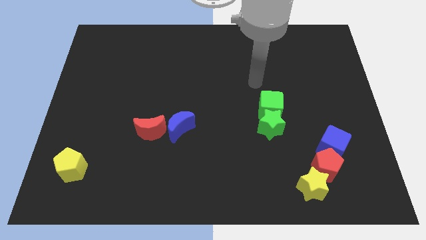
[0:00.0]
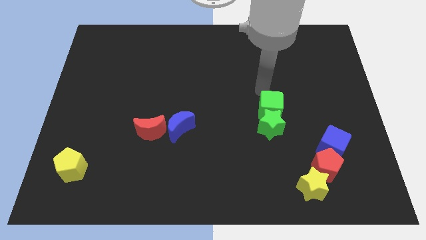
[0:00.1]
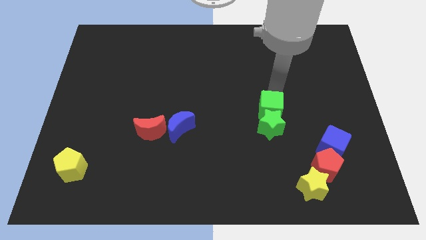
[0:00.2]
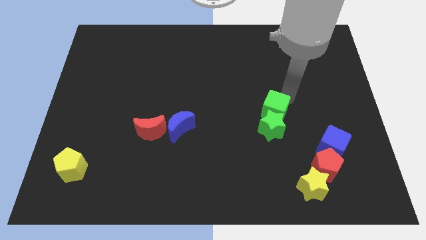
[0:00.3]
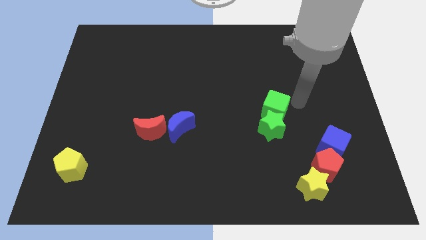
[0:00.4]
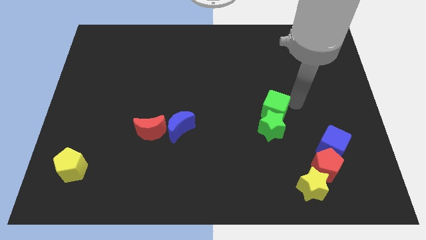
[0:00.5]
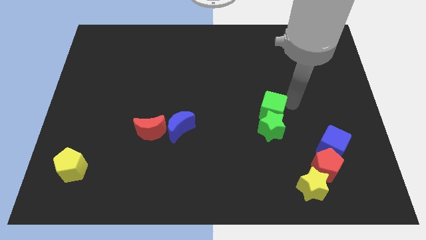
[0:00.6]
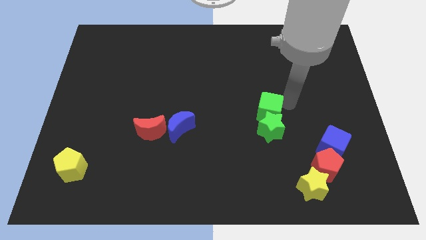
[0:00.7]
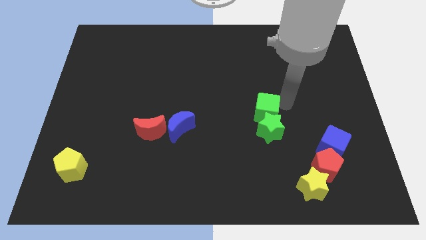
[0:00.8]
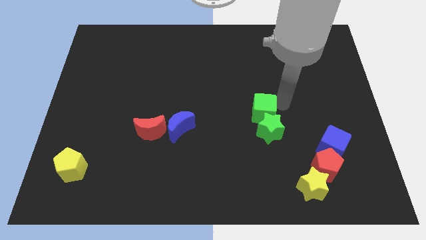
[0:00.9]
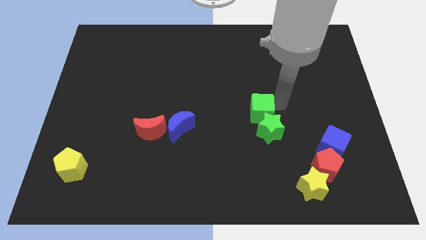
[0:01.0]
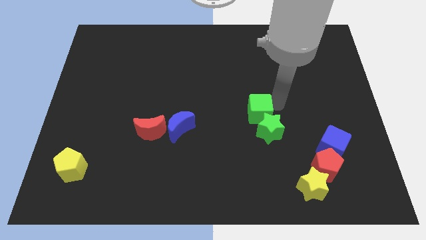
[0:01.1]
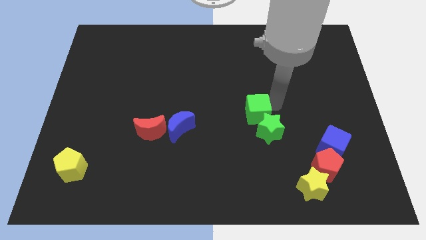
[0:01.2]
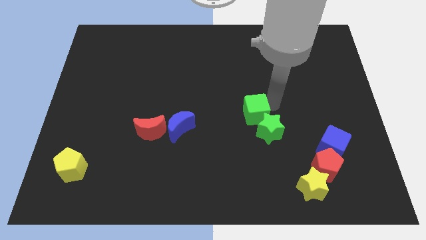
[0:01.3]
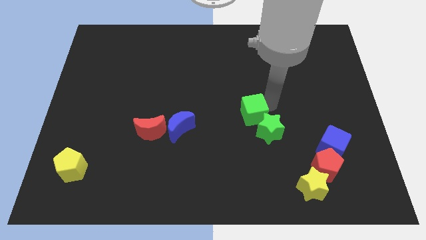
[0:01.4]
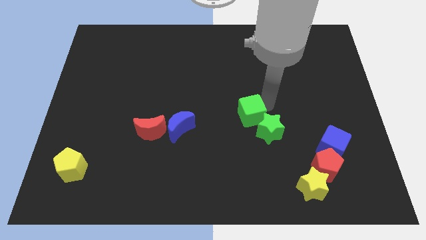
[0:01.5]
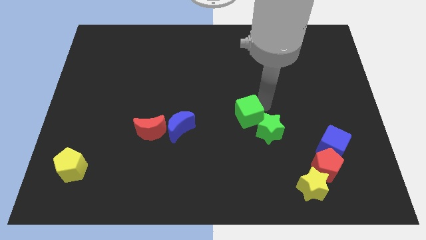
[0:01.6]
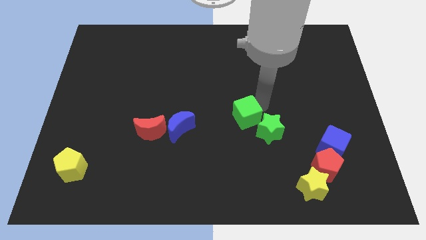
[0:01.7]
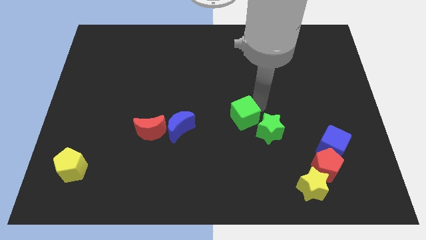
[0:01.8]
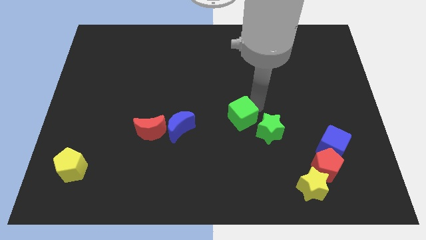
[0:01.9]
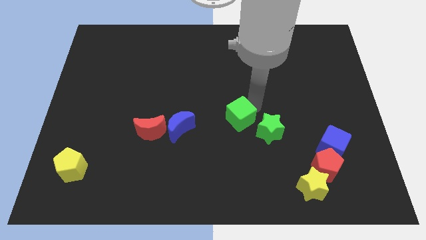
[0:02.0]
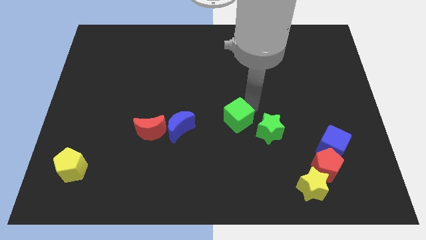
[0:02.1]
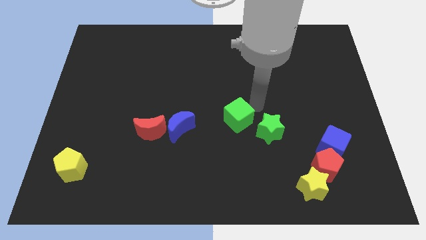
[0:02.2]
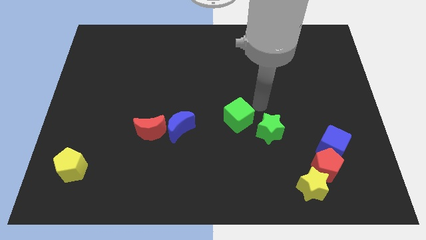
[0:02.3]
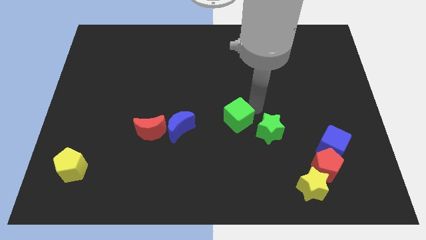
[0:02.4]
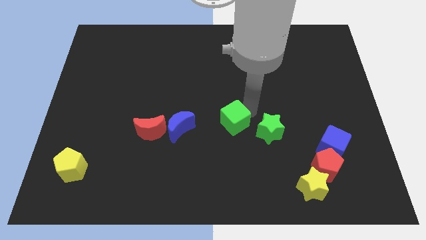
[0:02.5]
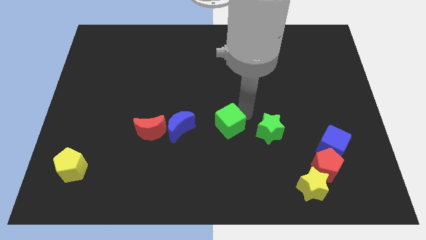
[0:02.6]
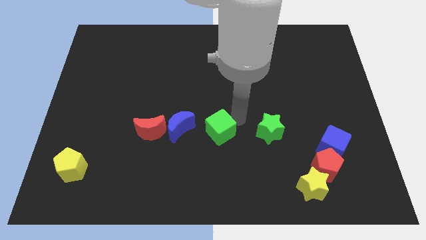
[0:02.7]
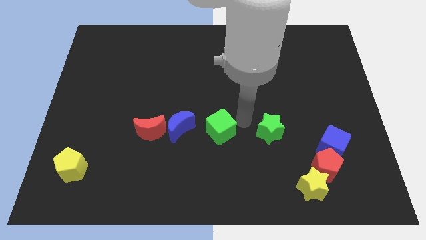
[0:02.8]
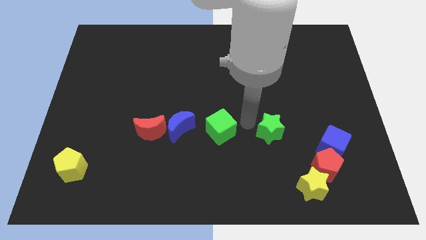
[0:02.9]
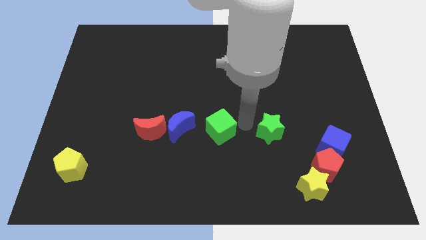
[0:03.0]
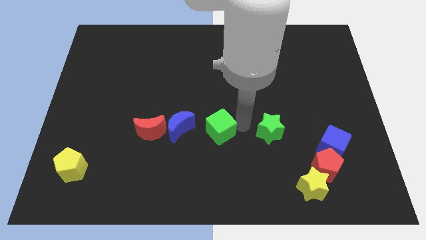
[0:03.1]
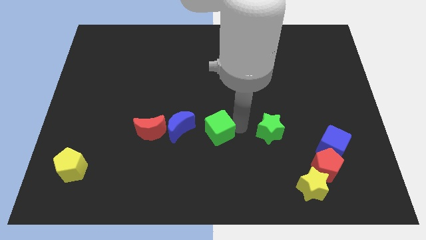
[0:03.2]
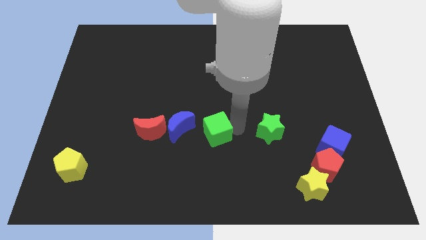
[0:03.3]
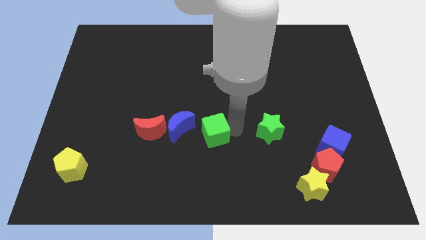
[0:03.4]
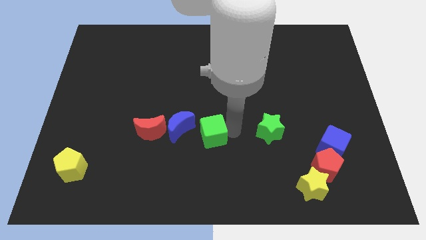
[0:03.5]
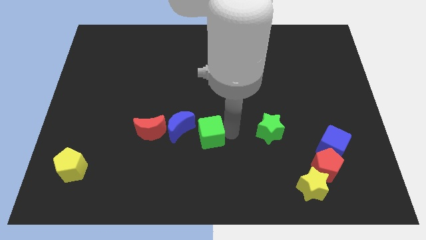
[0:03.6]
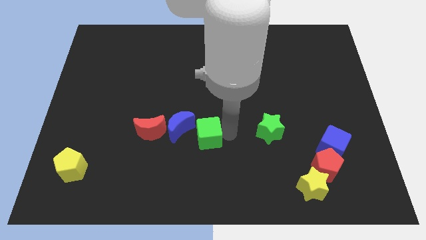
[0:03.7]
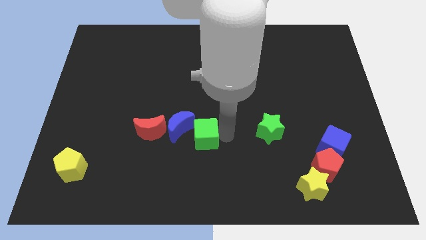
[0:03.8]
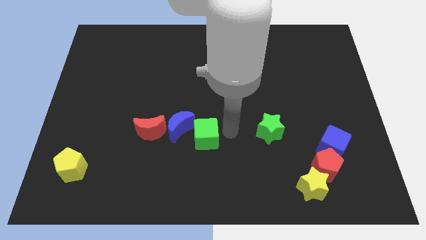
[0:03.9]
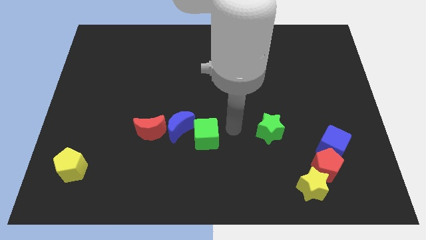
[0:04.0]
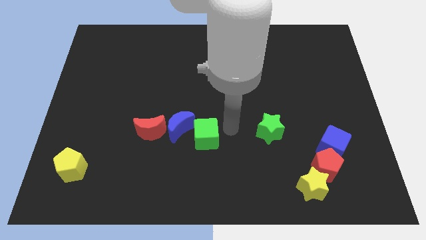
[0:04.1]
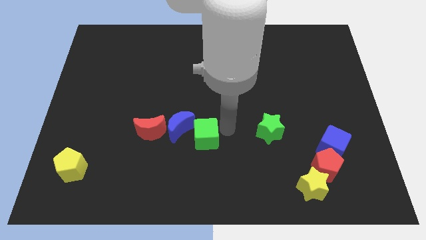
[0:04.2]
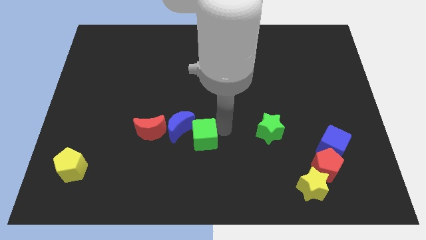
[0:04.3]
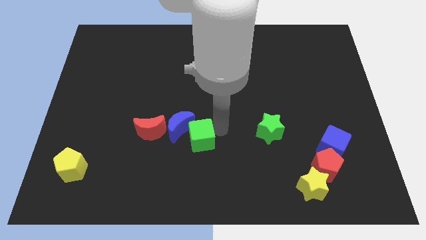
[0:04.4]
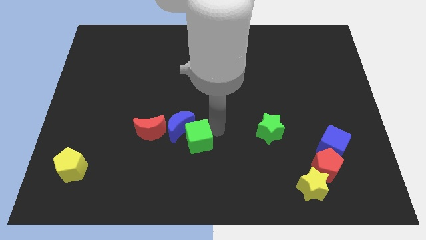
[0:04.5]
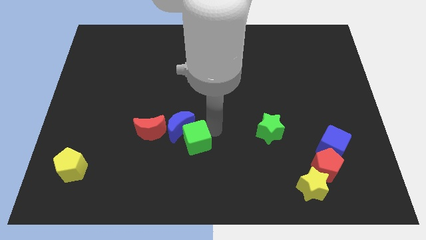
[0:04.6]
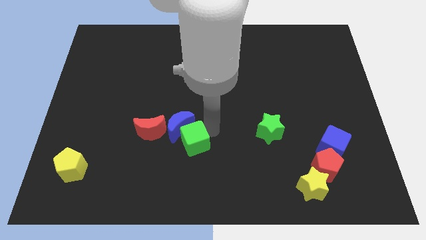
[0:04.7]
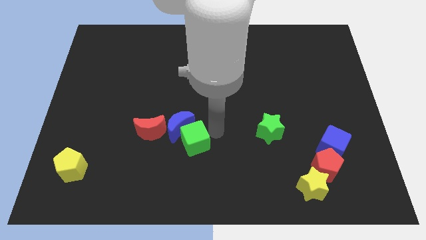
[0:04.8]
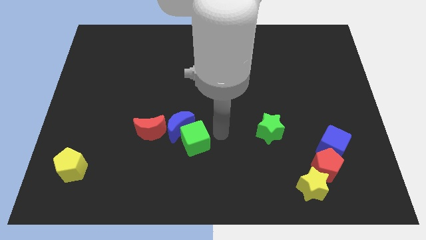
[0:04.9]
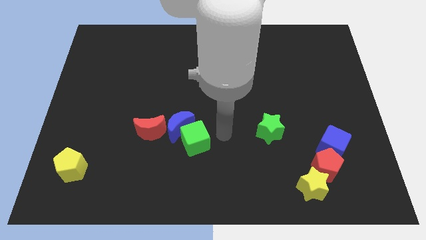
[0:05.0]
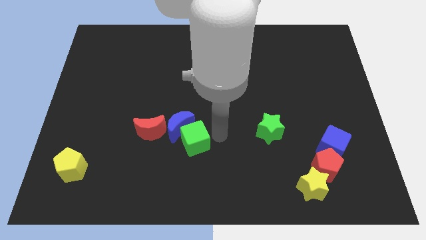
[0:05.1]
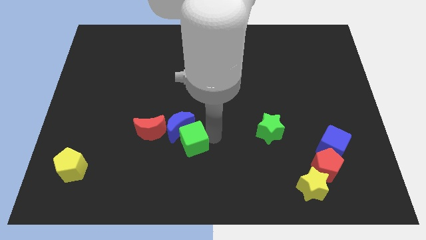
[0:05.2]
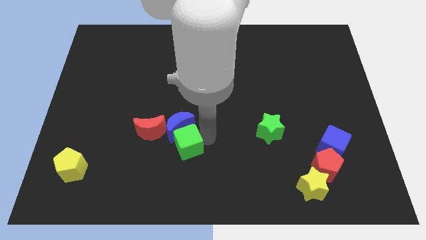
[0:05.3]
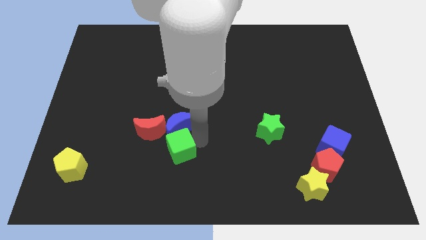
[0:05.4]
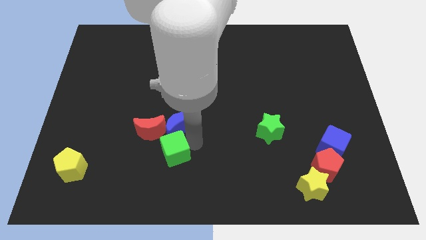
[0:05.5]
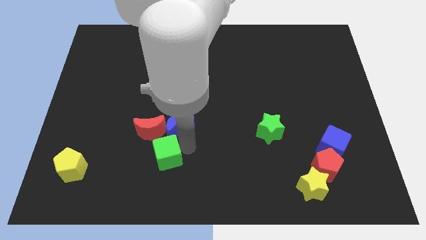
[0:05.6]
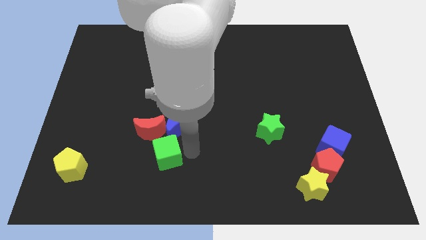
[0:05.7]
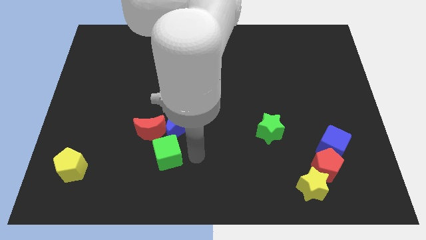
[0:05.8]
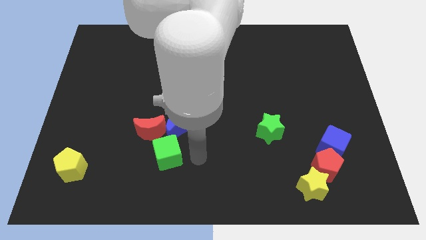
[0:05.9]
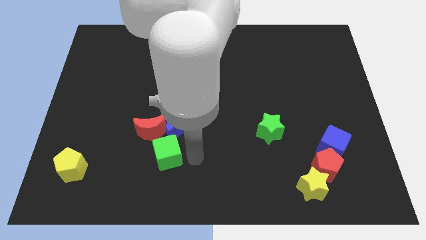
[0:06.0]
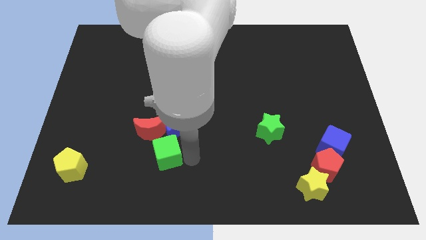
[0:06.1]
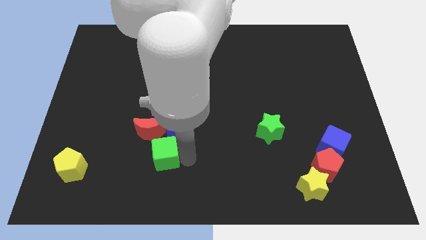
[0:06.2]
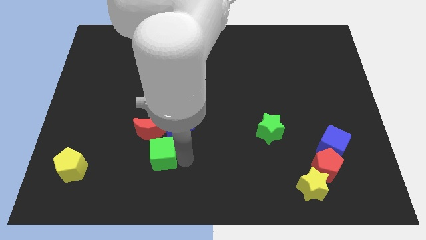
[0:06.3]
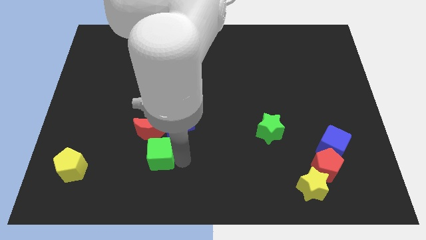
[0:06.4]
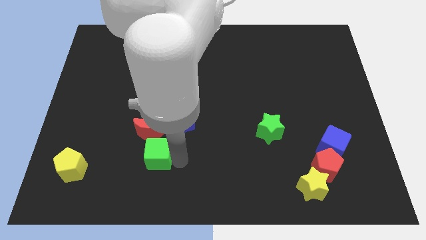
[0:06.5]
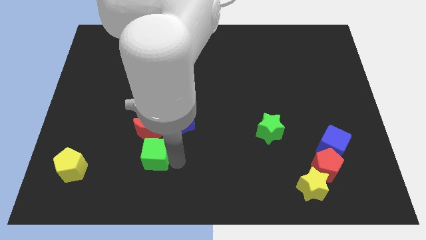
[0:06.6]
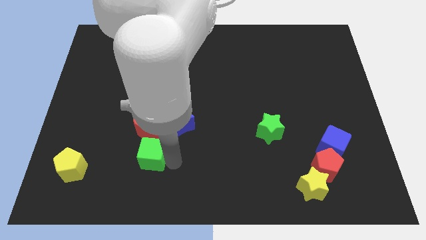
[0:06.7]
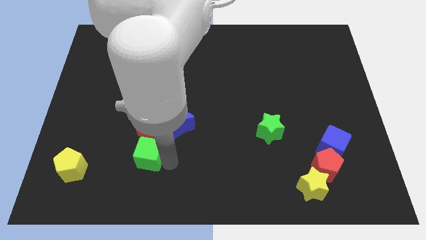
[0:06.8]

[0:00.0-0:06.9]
put the green cube diagonally down and to the left of the red moon
